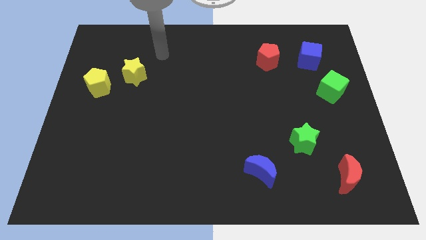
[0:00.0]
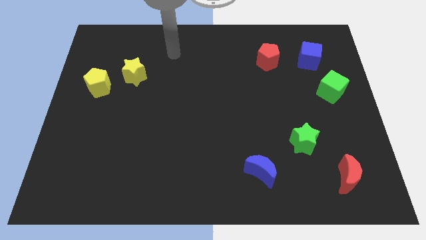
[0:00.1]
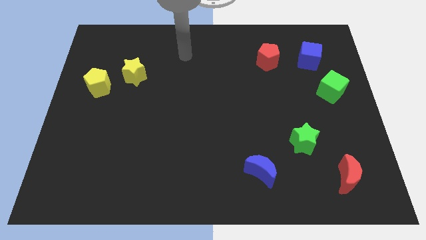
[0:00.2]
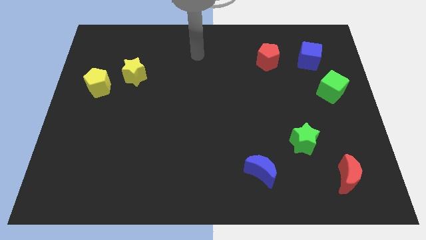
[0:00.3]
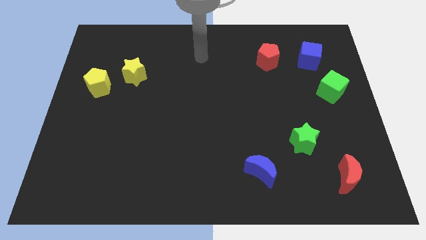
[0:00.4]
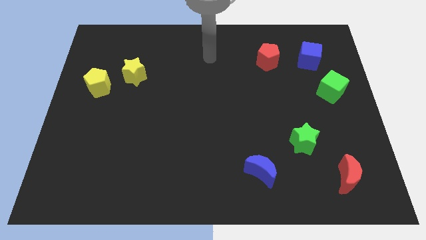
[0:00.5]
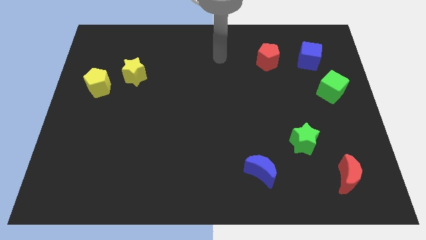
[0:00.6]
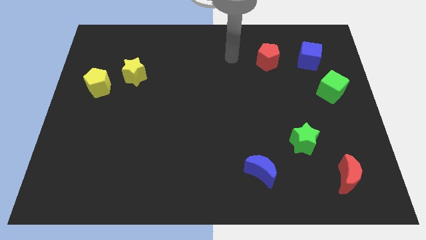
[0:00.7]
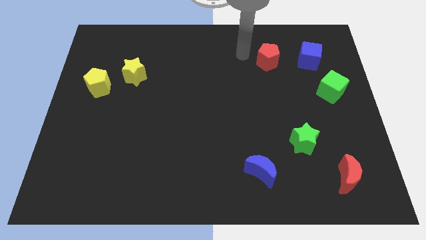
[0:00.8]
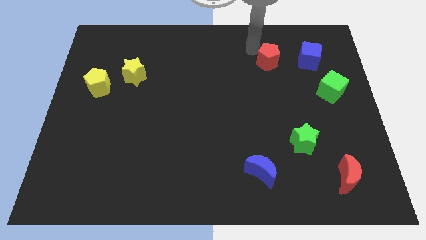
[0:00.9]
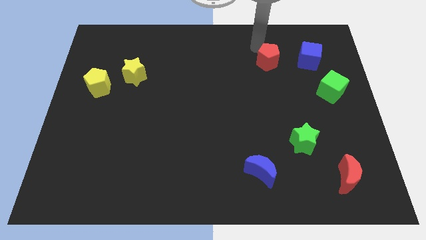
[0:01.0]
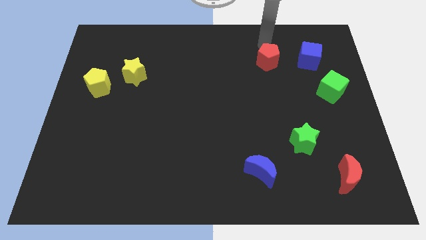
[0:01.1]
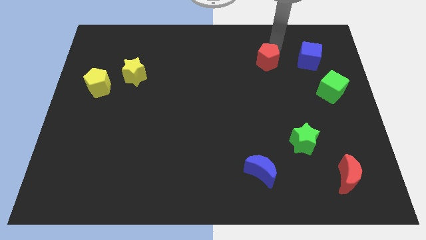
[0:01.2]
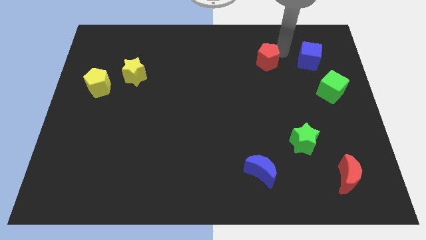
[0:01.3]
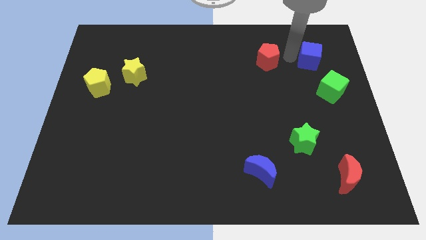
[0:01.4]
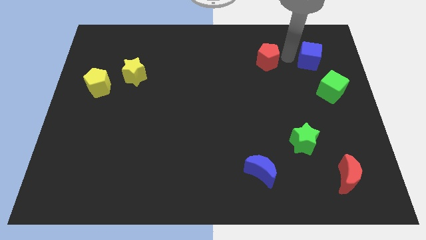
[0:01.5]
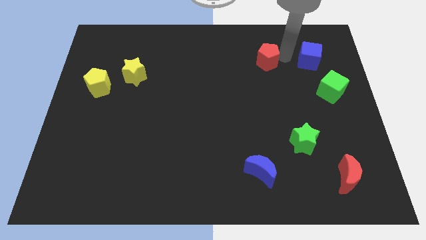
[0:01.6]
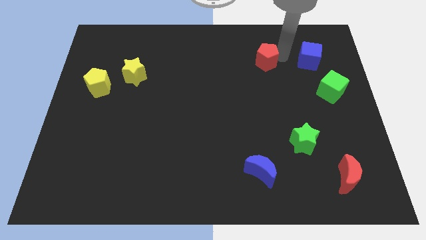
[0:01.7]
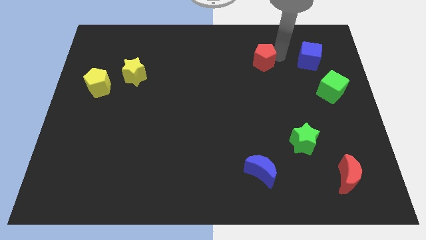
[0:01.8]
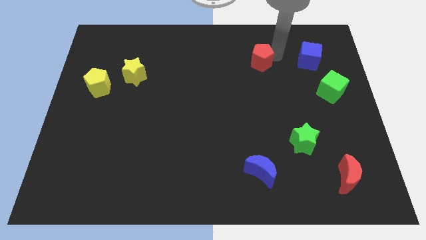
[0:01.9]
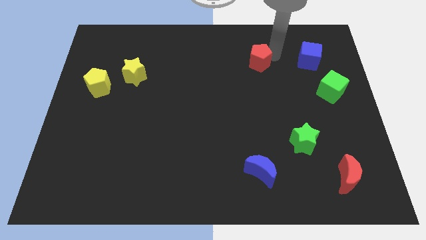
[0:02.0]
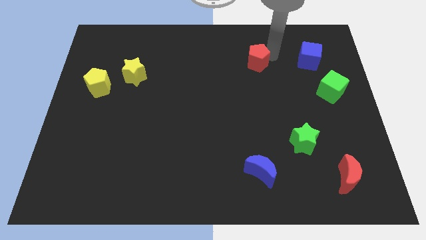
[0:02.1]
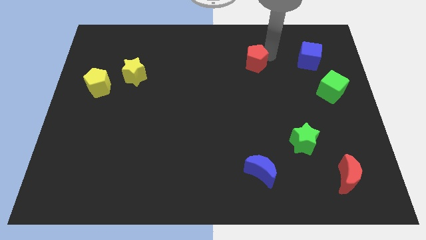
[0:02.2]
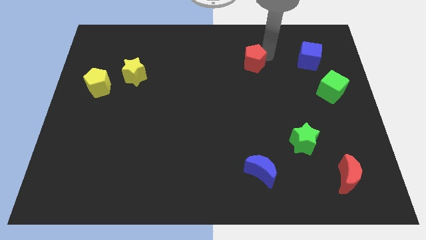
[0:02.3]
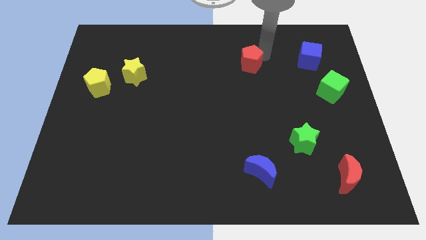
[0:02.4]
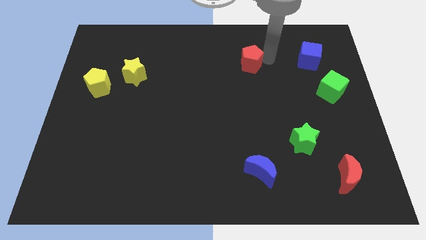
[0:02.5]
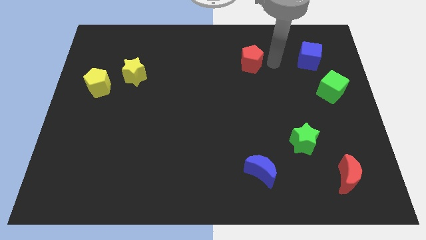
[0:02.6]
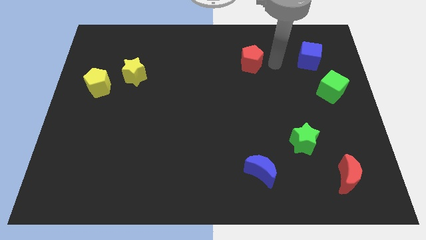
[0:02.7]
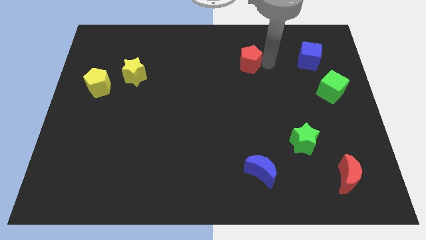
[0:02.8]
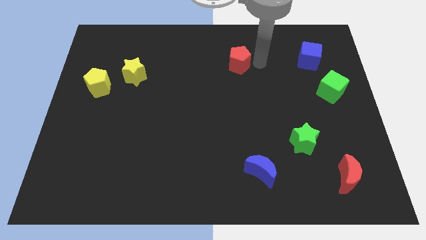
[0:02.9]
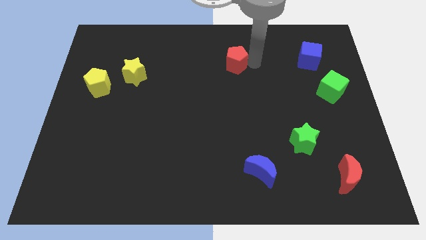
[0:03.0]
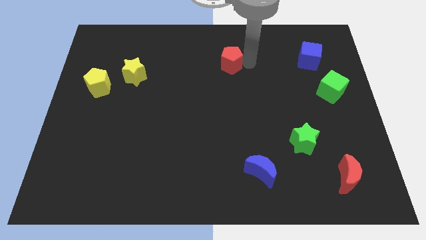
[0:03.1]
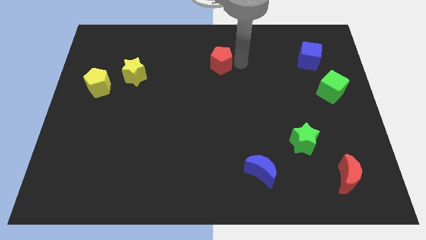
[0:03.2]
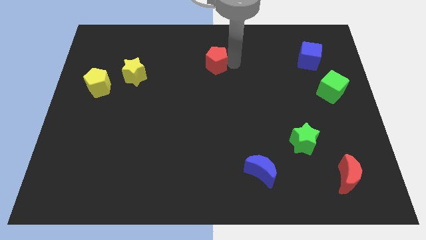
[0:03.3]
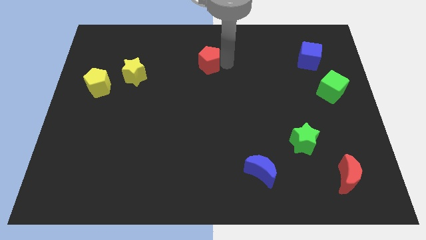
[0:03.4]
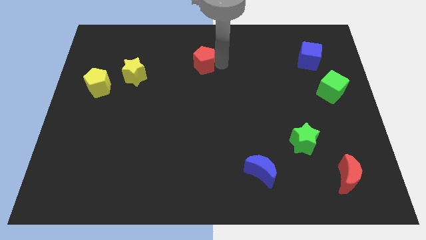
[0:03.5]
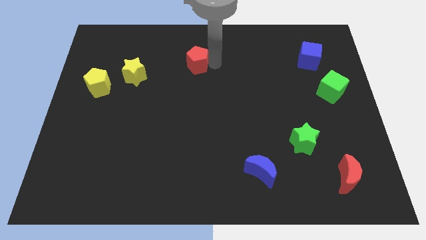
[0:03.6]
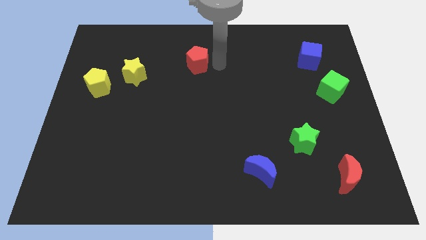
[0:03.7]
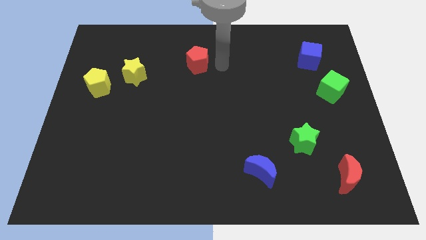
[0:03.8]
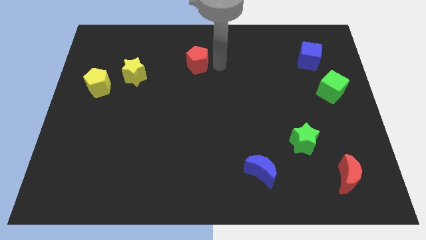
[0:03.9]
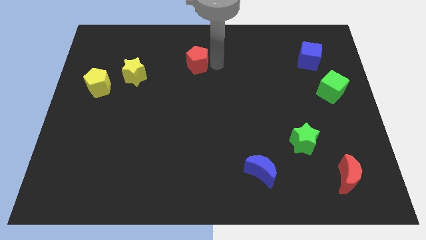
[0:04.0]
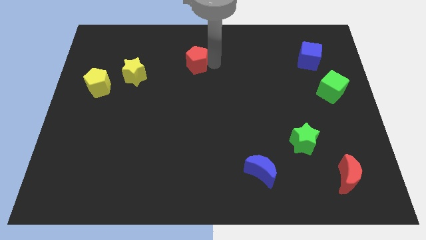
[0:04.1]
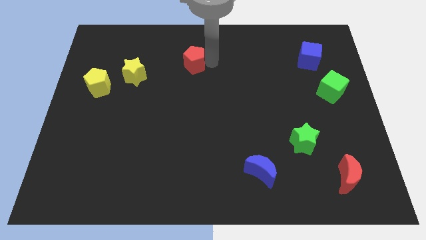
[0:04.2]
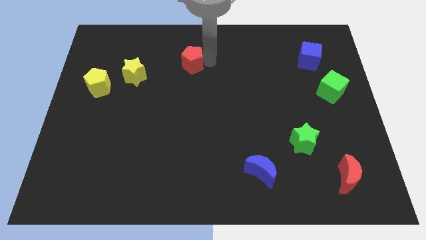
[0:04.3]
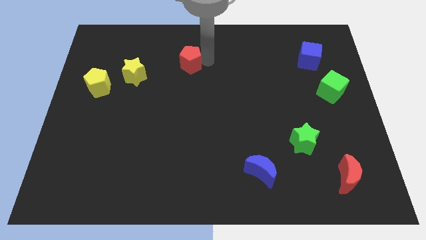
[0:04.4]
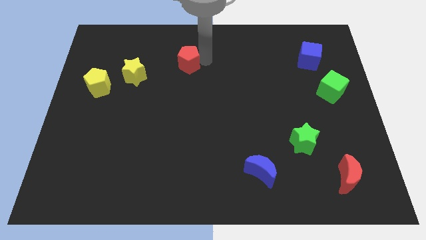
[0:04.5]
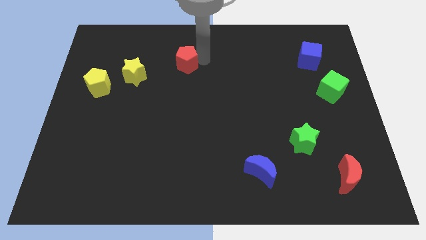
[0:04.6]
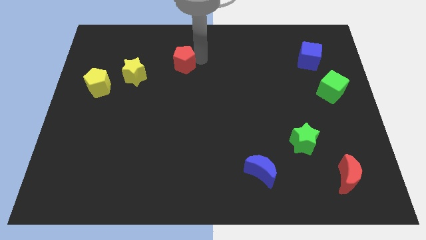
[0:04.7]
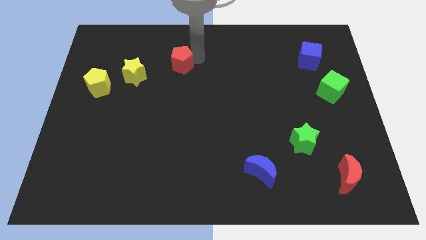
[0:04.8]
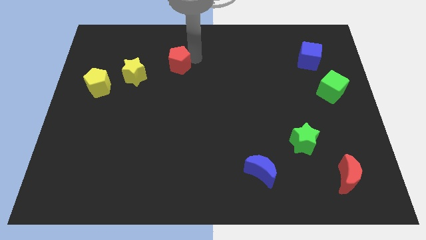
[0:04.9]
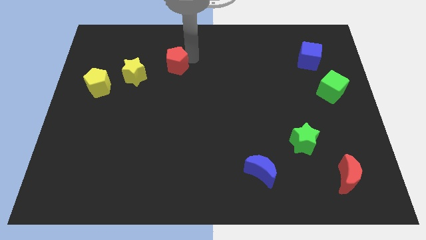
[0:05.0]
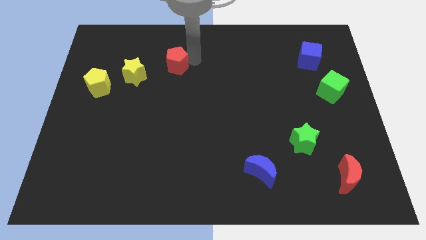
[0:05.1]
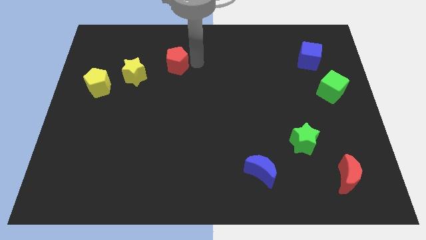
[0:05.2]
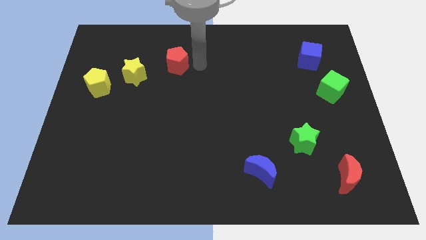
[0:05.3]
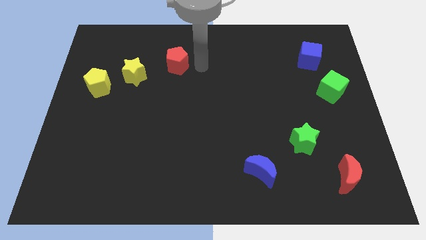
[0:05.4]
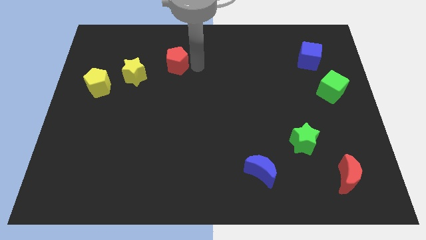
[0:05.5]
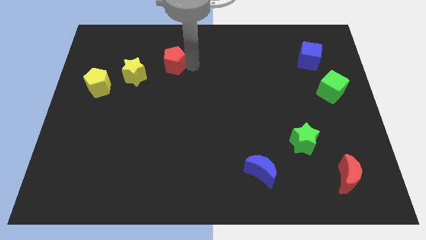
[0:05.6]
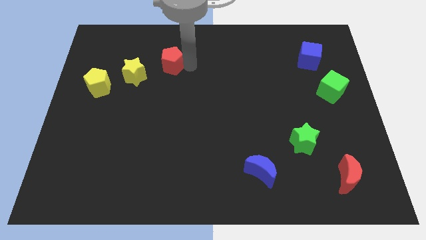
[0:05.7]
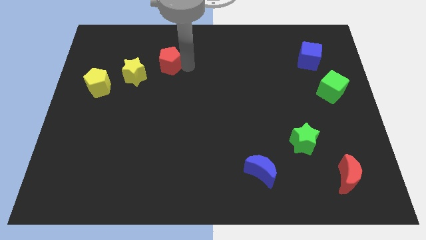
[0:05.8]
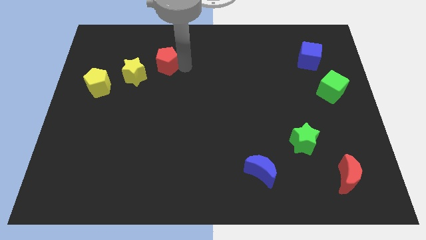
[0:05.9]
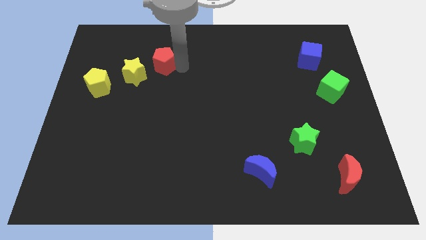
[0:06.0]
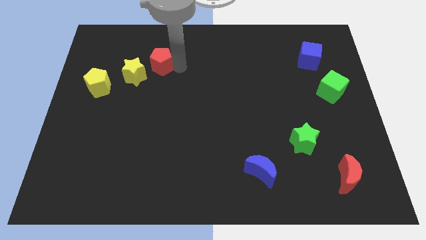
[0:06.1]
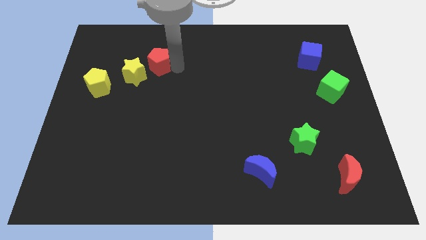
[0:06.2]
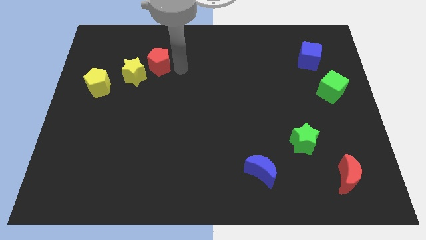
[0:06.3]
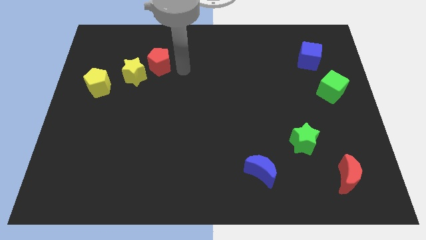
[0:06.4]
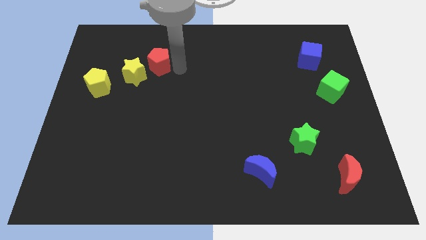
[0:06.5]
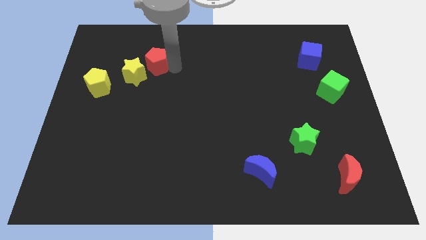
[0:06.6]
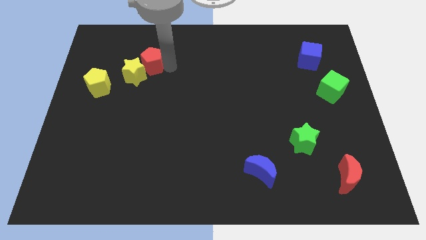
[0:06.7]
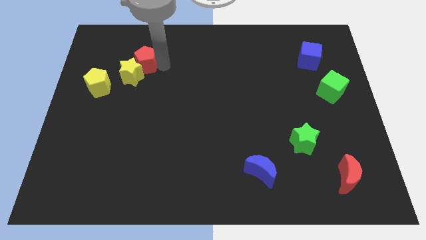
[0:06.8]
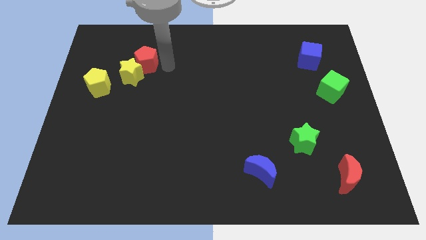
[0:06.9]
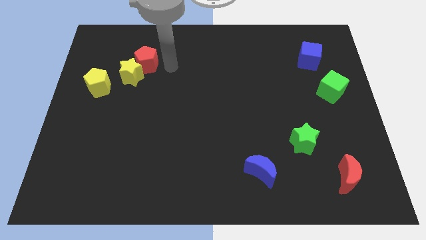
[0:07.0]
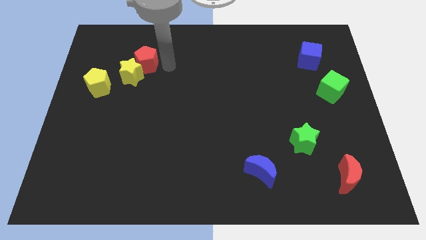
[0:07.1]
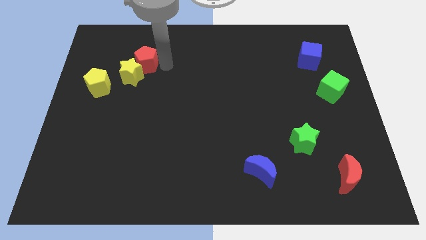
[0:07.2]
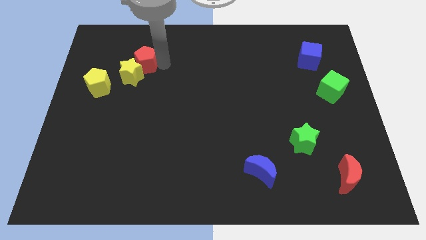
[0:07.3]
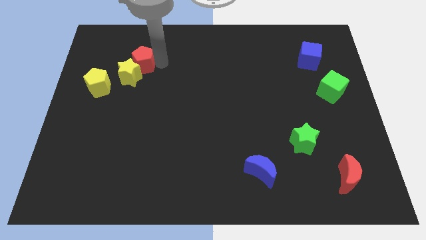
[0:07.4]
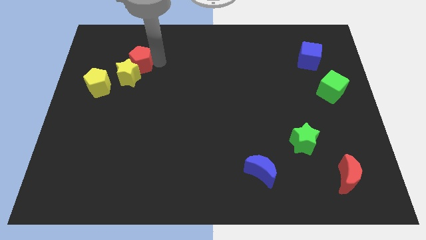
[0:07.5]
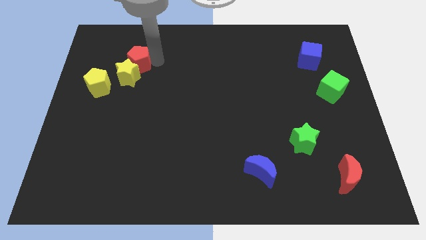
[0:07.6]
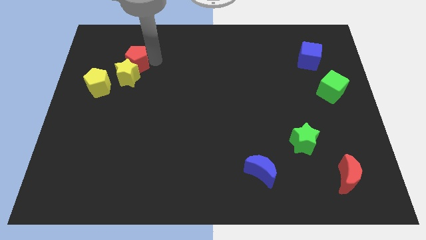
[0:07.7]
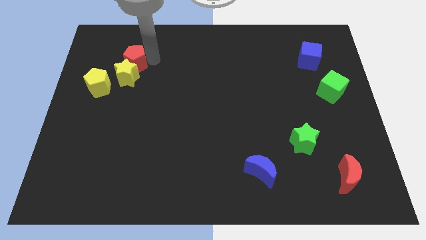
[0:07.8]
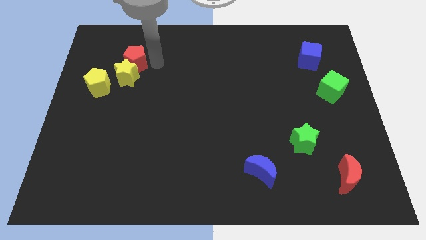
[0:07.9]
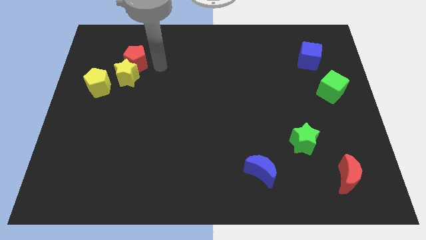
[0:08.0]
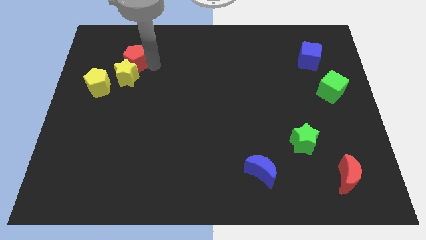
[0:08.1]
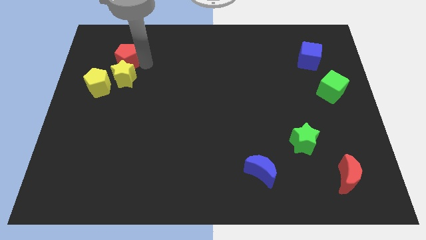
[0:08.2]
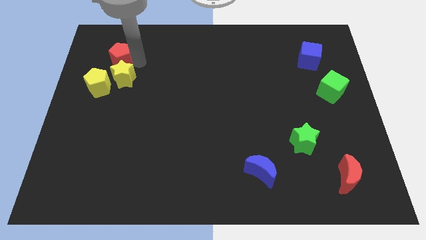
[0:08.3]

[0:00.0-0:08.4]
push the red pentagon to the top of the yellow pentagon
